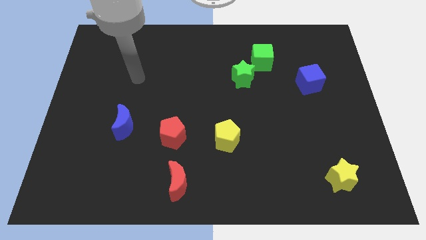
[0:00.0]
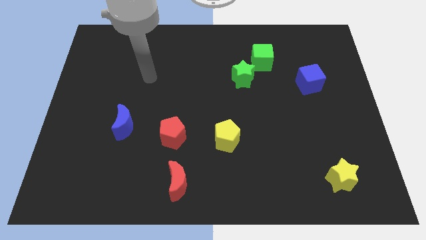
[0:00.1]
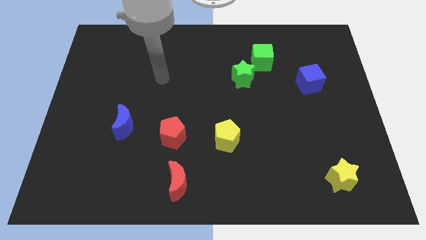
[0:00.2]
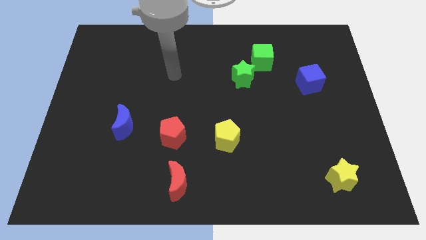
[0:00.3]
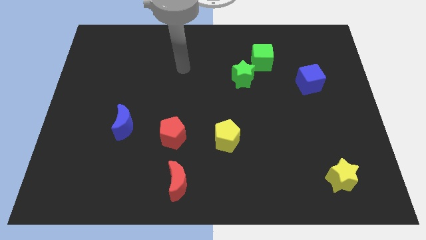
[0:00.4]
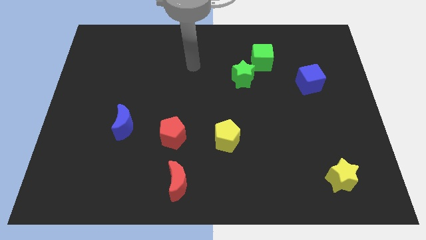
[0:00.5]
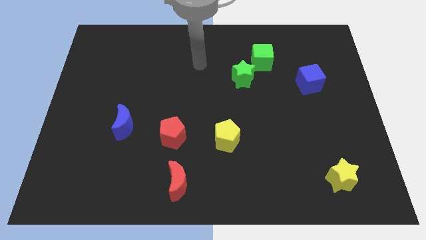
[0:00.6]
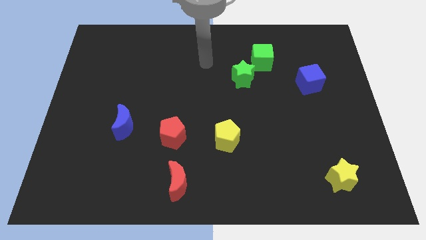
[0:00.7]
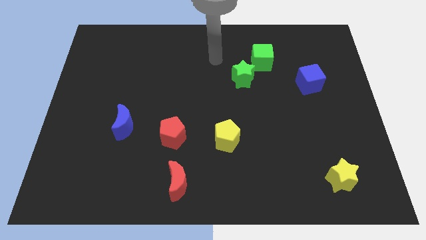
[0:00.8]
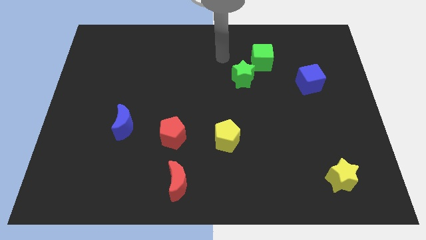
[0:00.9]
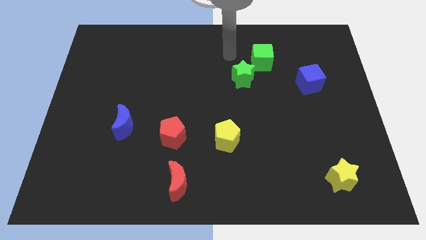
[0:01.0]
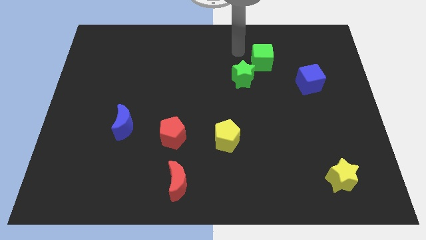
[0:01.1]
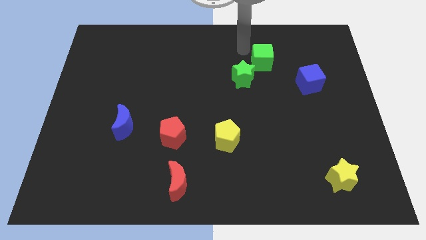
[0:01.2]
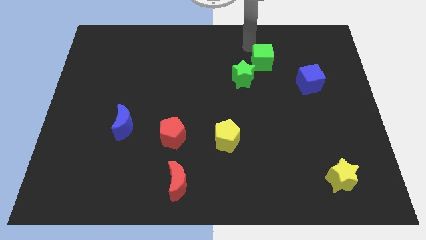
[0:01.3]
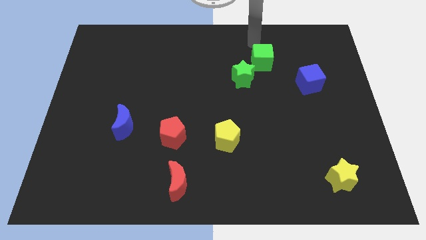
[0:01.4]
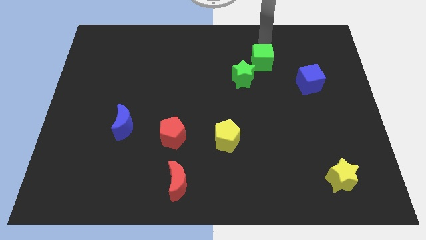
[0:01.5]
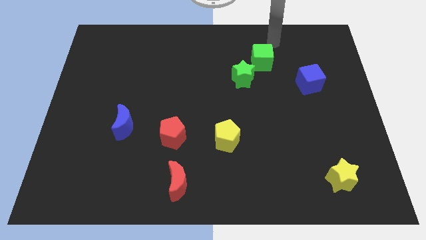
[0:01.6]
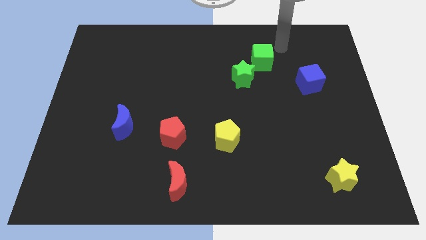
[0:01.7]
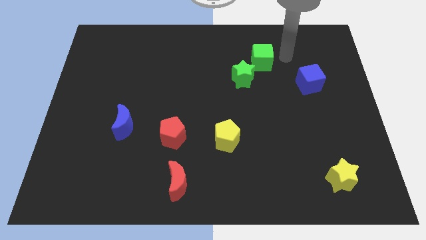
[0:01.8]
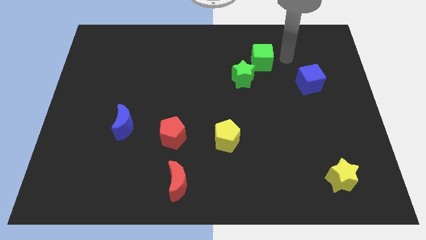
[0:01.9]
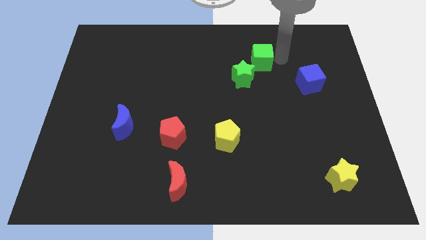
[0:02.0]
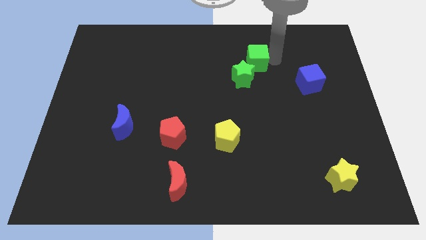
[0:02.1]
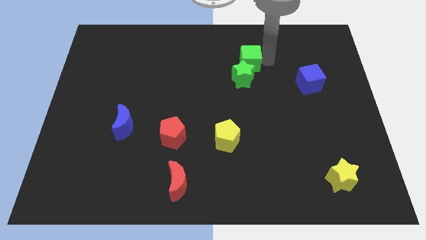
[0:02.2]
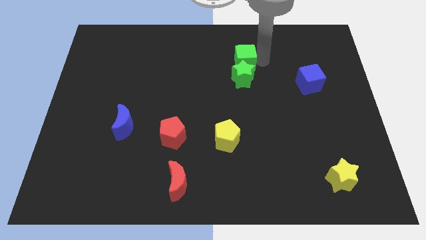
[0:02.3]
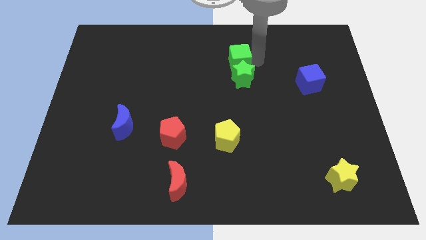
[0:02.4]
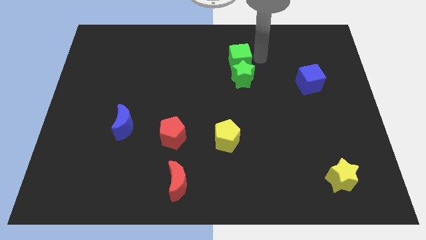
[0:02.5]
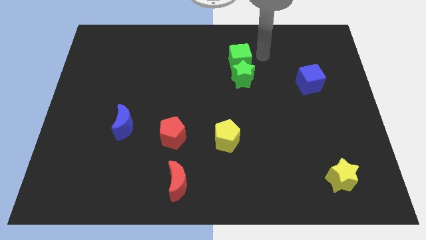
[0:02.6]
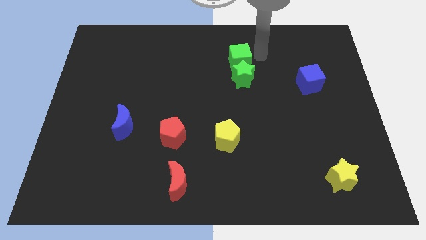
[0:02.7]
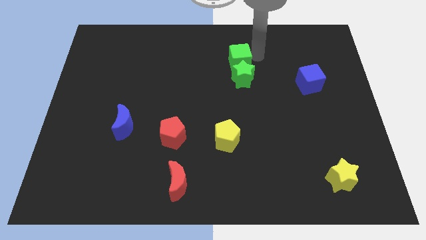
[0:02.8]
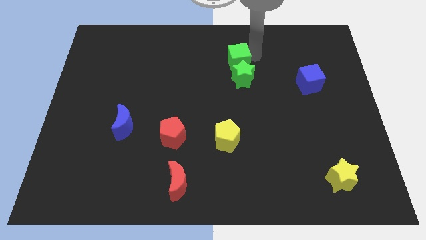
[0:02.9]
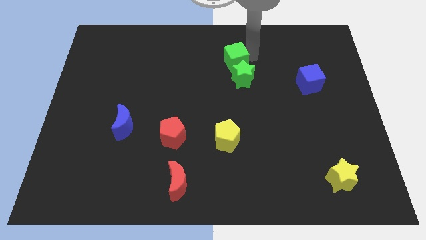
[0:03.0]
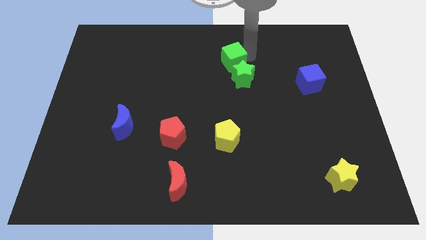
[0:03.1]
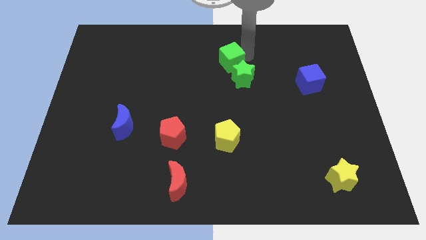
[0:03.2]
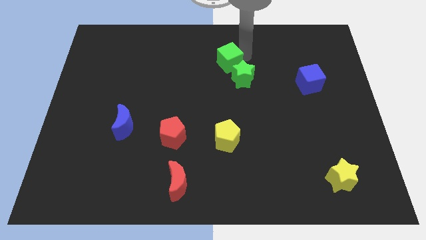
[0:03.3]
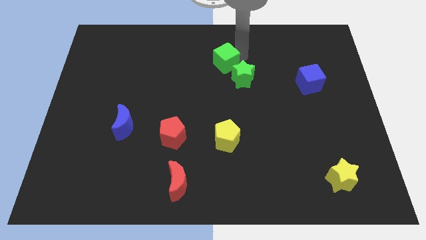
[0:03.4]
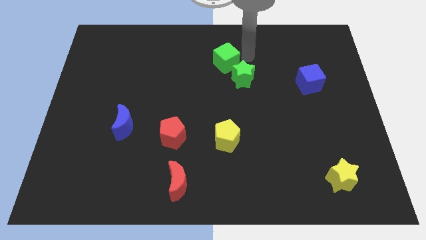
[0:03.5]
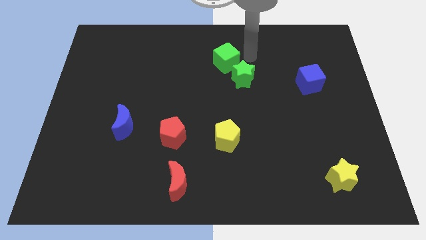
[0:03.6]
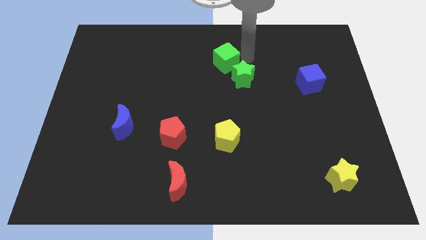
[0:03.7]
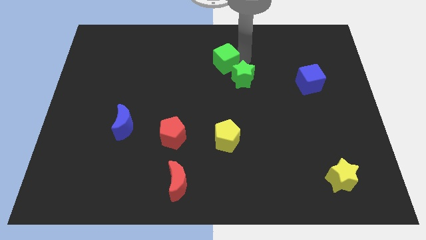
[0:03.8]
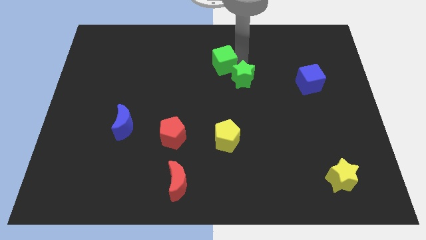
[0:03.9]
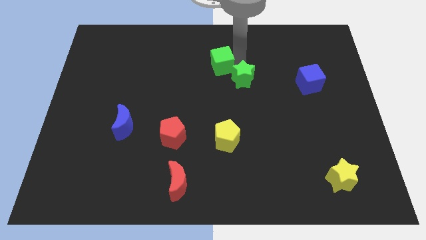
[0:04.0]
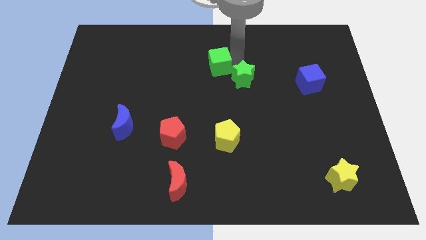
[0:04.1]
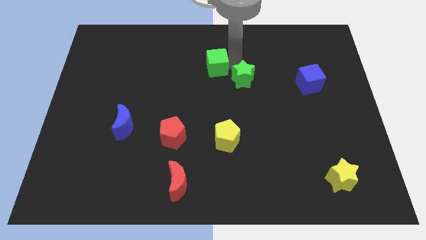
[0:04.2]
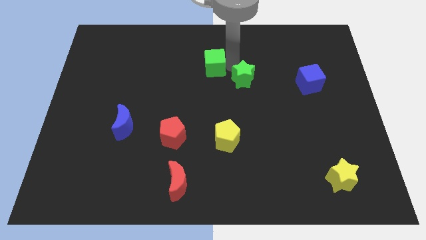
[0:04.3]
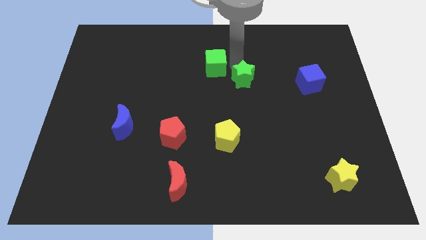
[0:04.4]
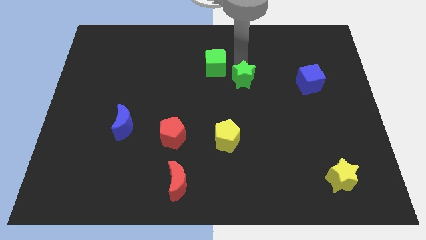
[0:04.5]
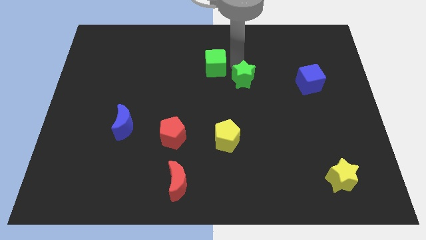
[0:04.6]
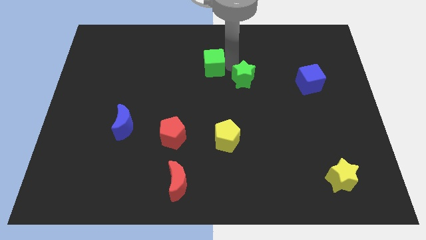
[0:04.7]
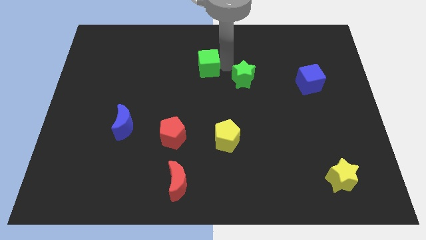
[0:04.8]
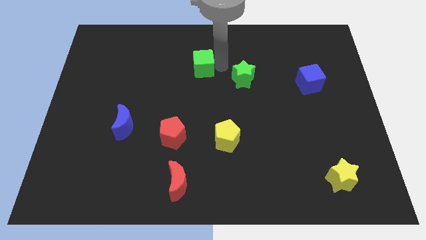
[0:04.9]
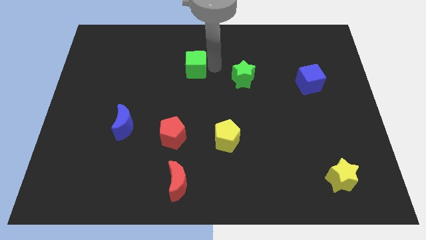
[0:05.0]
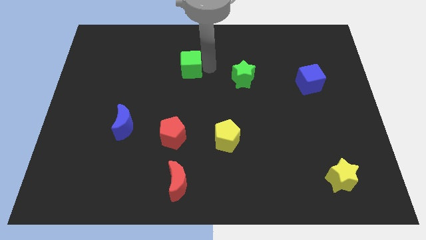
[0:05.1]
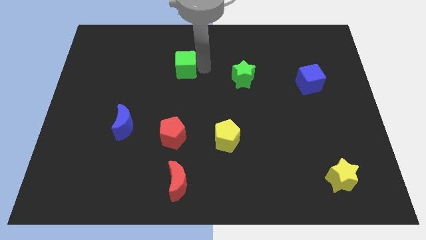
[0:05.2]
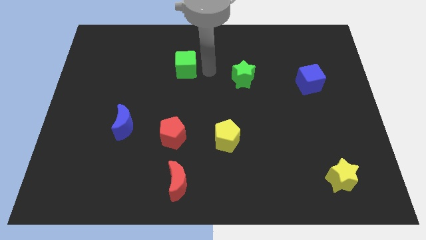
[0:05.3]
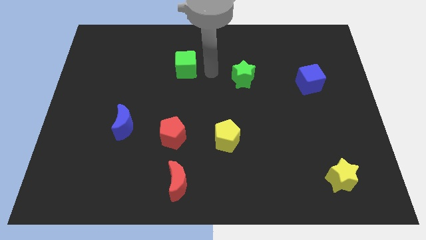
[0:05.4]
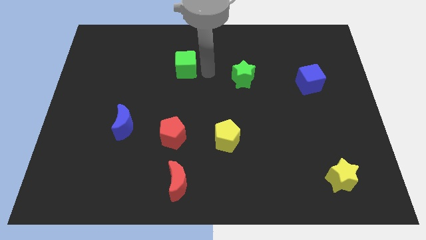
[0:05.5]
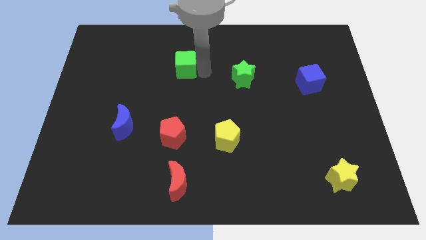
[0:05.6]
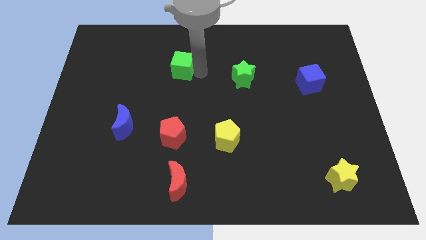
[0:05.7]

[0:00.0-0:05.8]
slide the green cube to the left

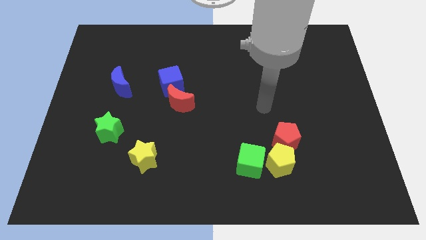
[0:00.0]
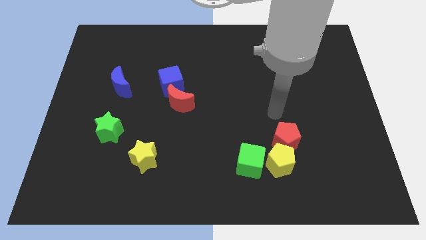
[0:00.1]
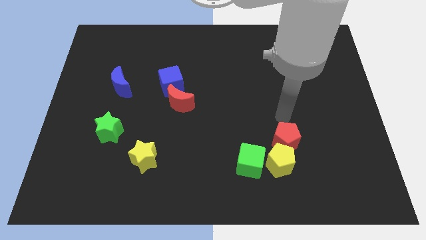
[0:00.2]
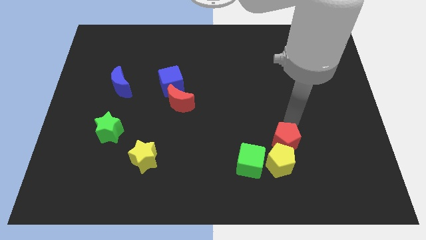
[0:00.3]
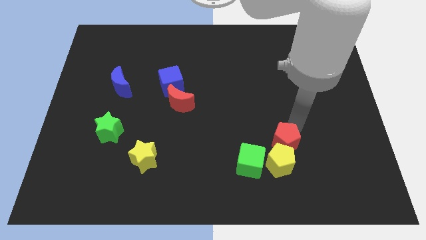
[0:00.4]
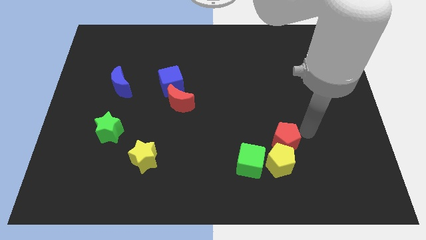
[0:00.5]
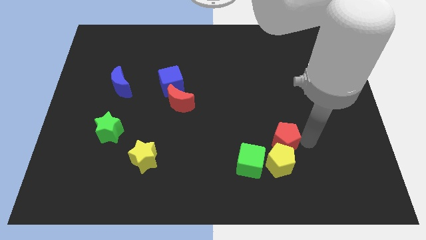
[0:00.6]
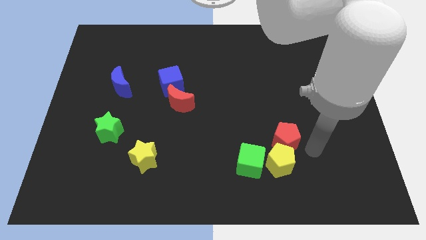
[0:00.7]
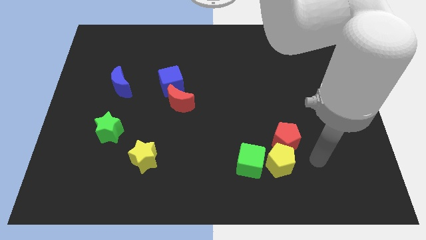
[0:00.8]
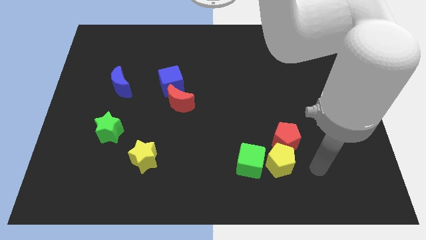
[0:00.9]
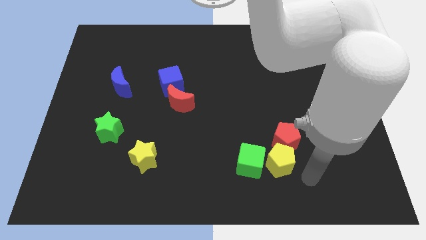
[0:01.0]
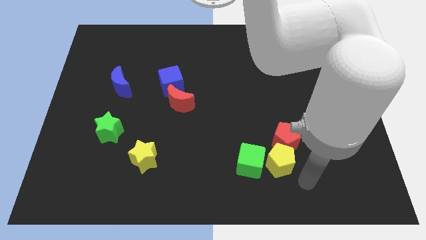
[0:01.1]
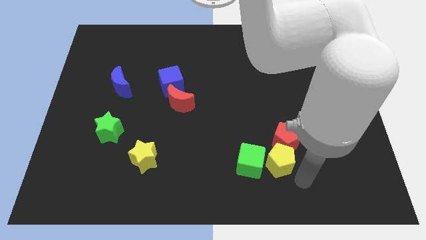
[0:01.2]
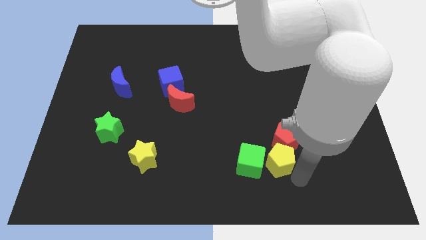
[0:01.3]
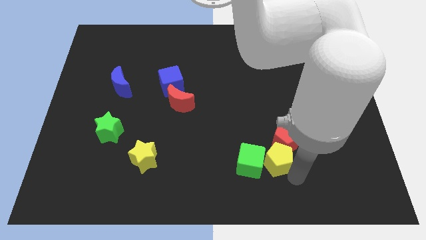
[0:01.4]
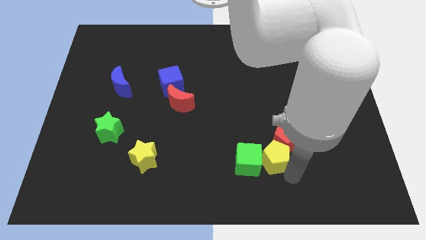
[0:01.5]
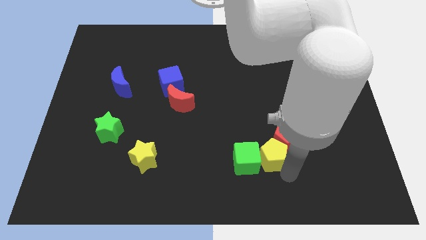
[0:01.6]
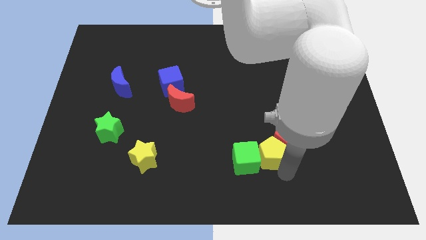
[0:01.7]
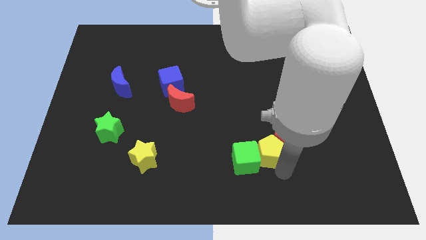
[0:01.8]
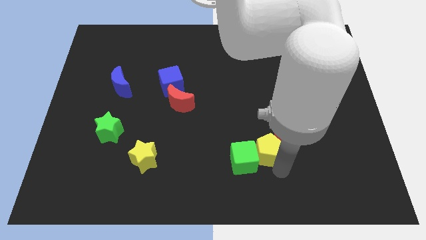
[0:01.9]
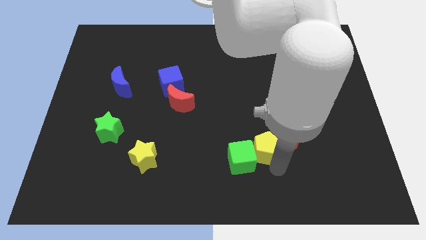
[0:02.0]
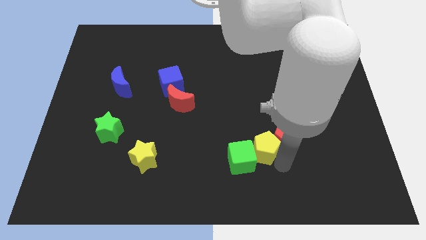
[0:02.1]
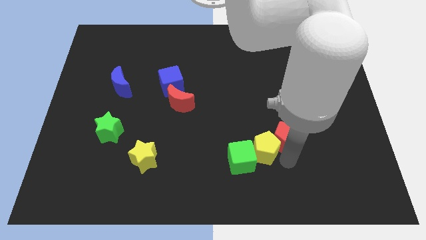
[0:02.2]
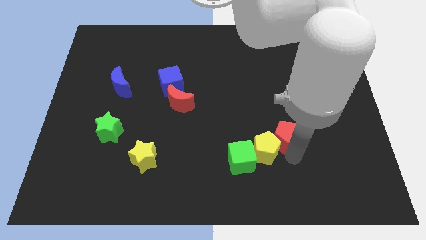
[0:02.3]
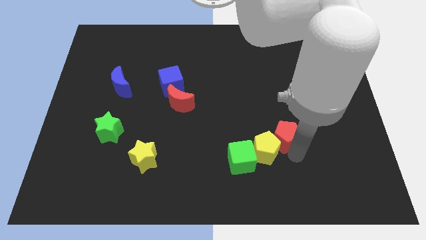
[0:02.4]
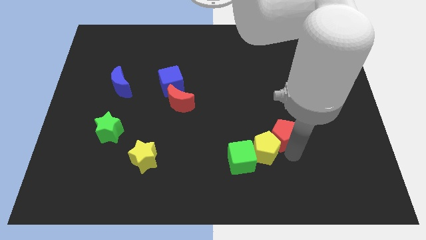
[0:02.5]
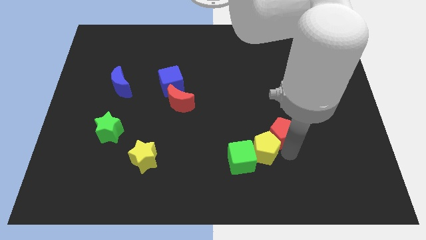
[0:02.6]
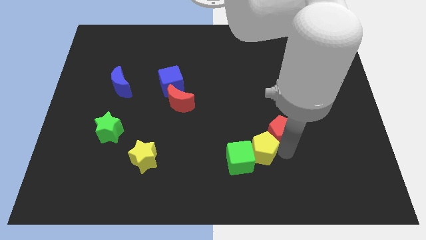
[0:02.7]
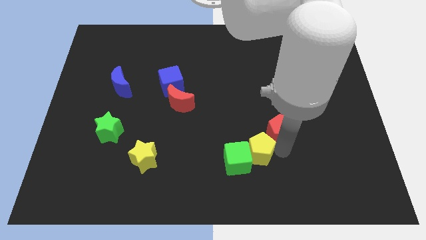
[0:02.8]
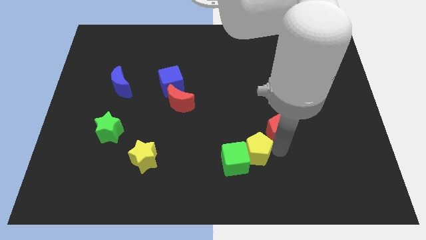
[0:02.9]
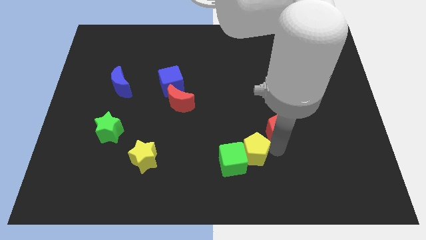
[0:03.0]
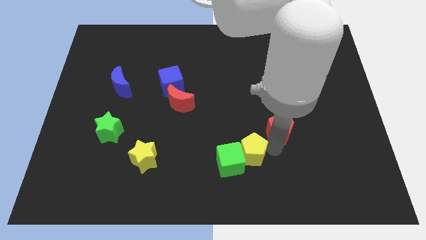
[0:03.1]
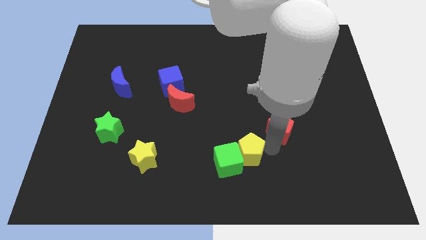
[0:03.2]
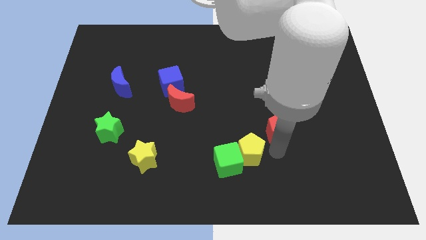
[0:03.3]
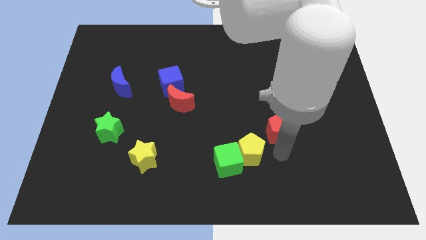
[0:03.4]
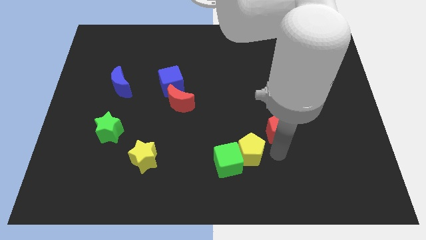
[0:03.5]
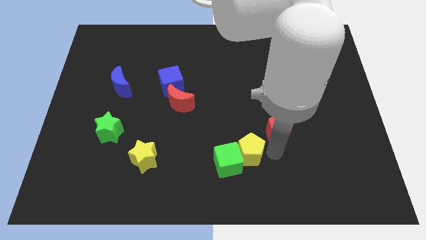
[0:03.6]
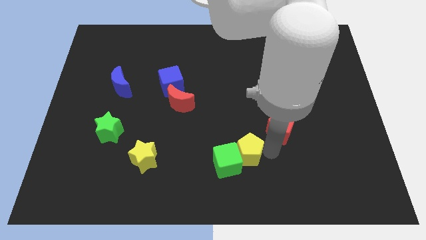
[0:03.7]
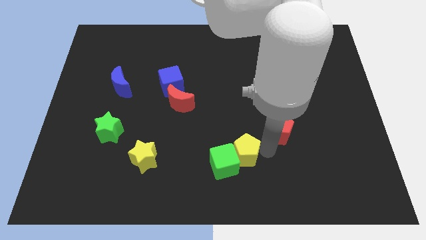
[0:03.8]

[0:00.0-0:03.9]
slide the yellow pentagon left a little bit
